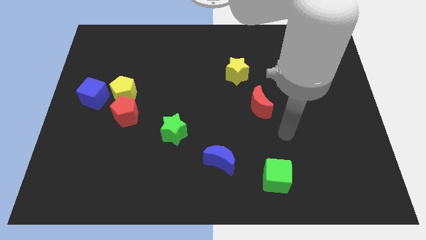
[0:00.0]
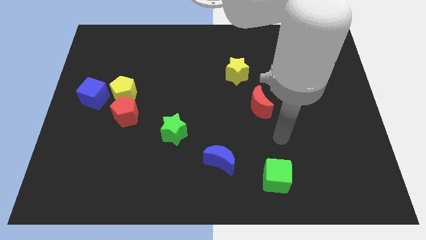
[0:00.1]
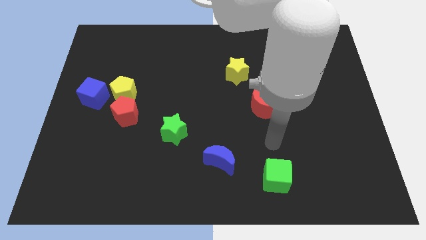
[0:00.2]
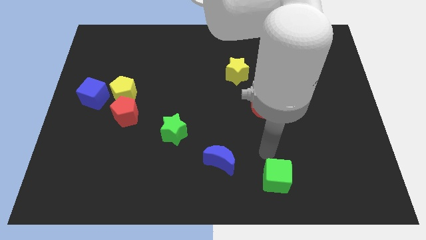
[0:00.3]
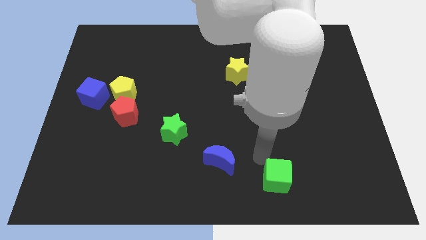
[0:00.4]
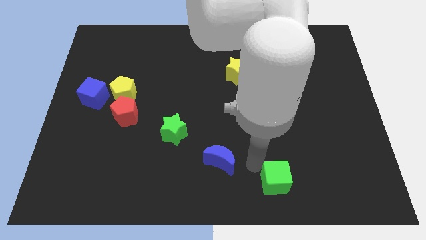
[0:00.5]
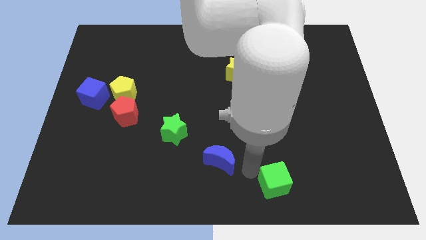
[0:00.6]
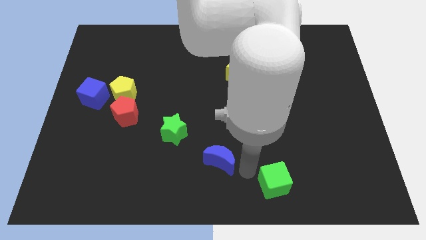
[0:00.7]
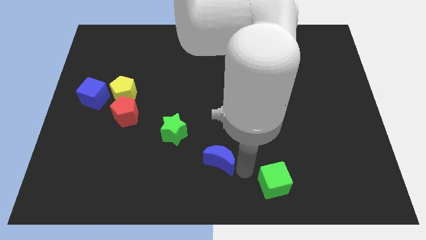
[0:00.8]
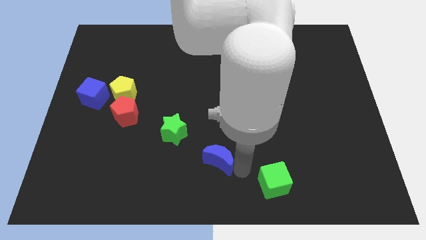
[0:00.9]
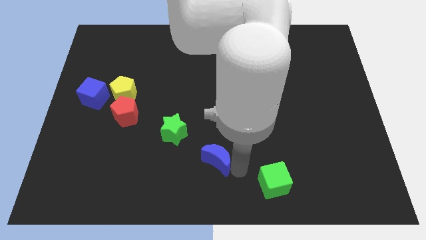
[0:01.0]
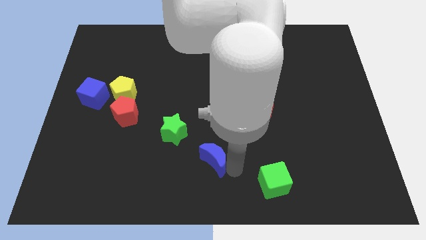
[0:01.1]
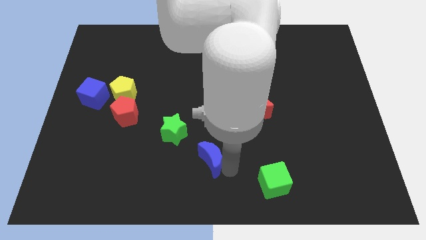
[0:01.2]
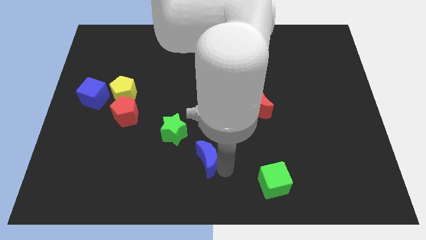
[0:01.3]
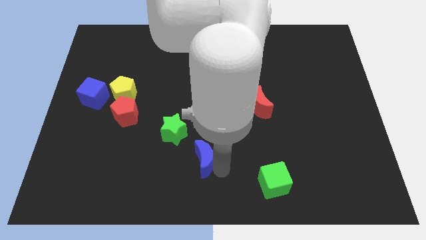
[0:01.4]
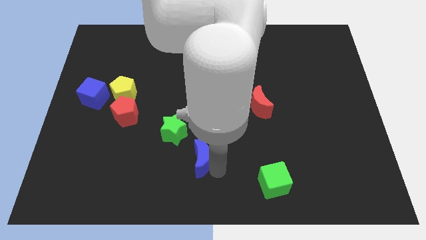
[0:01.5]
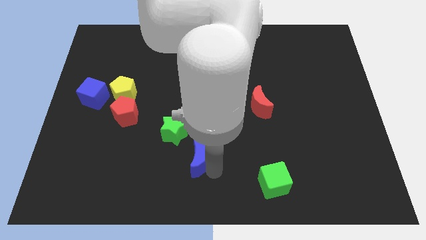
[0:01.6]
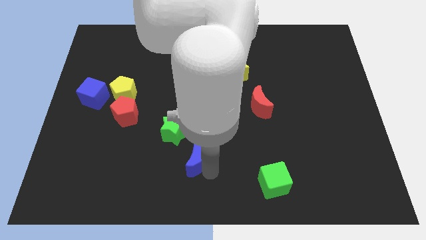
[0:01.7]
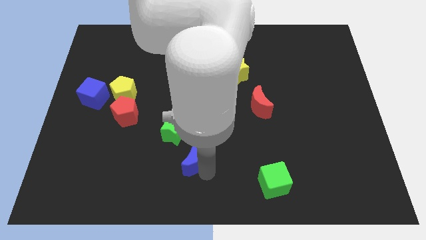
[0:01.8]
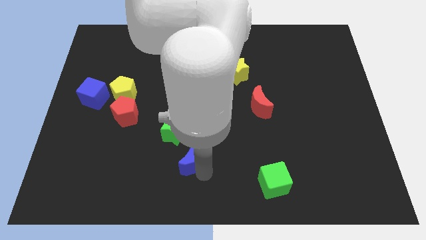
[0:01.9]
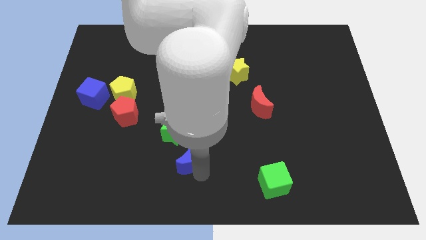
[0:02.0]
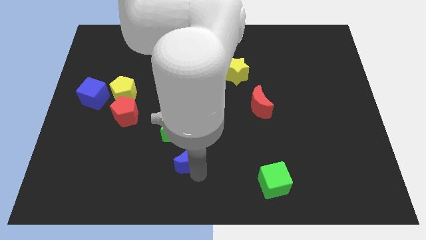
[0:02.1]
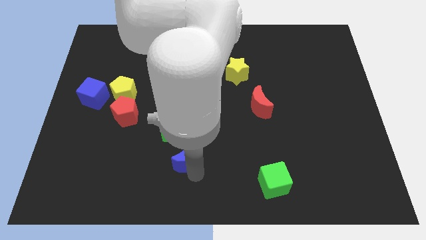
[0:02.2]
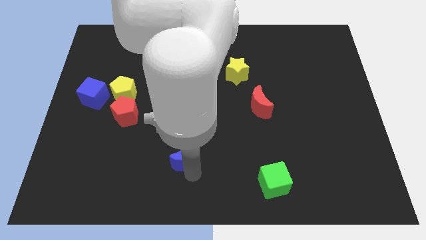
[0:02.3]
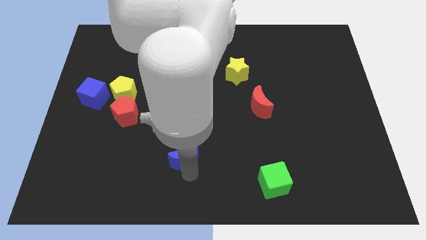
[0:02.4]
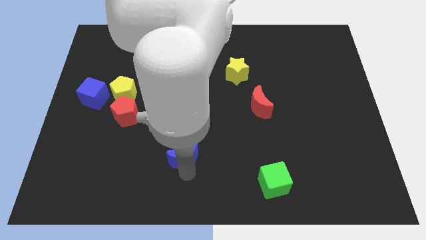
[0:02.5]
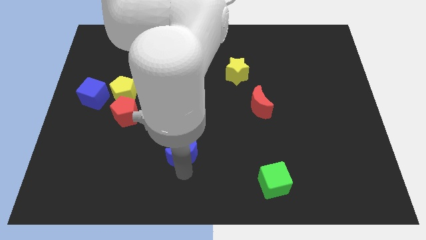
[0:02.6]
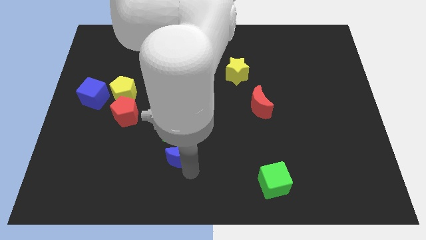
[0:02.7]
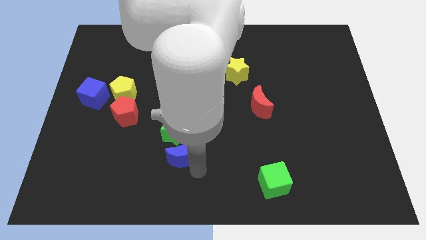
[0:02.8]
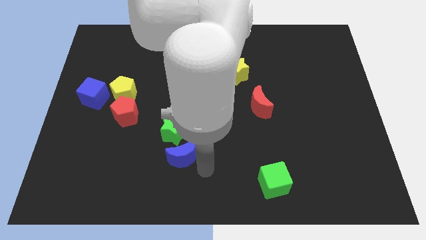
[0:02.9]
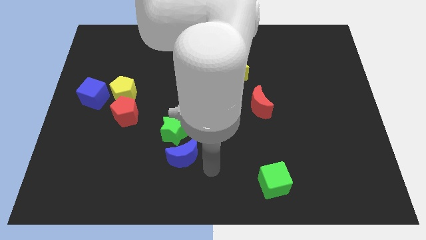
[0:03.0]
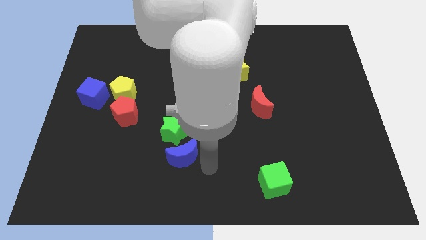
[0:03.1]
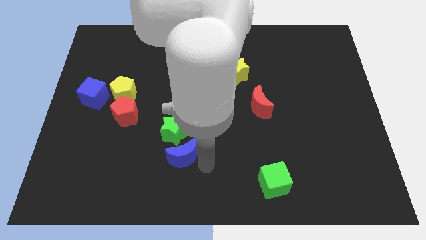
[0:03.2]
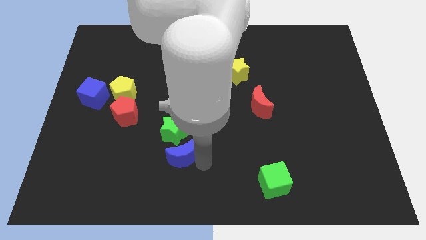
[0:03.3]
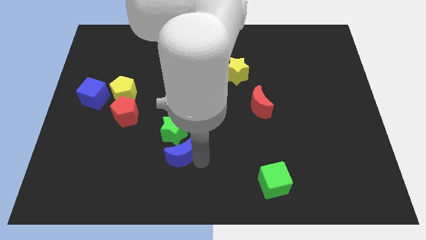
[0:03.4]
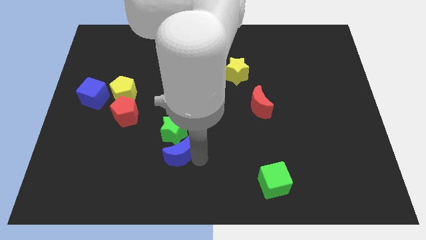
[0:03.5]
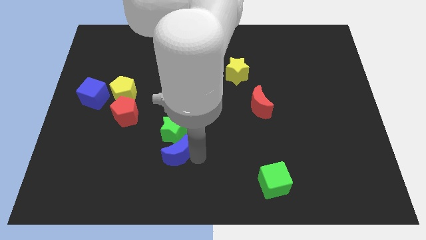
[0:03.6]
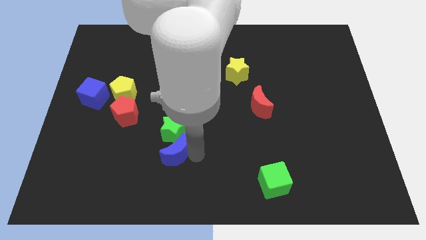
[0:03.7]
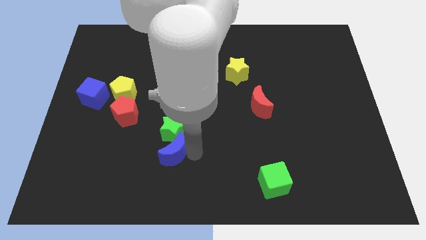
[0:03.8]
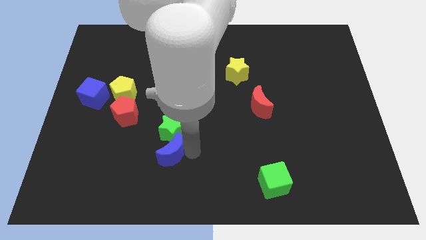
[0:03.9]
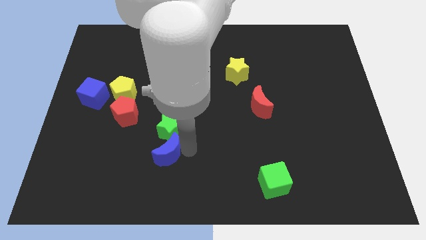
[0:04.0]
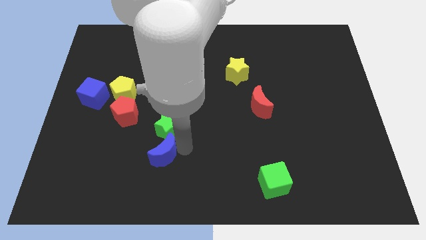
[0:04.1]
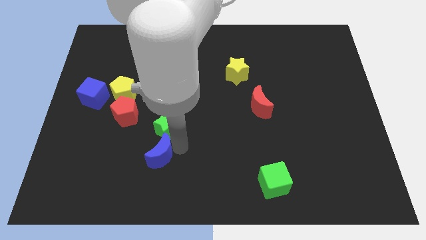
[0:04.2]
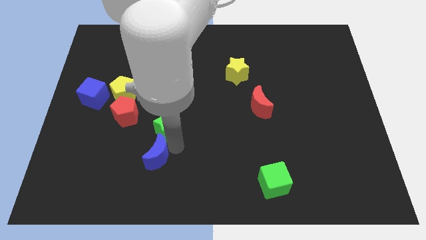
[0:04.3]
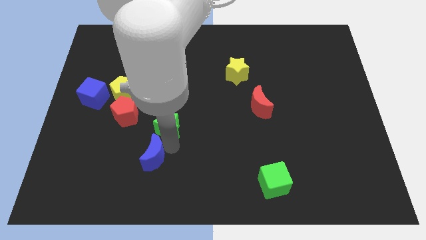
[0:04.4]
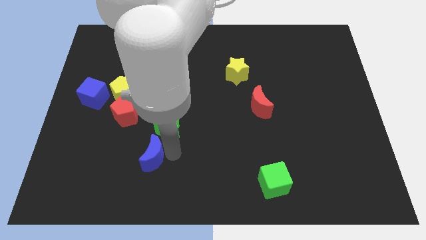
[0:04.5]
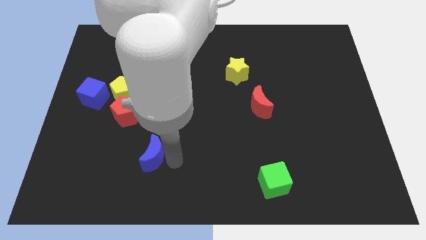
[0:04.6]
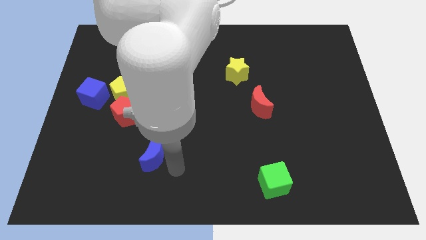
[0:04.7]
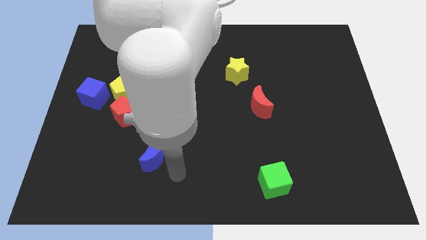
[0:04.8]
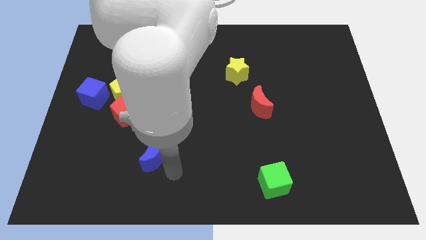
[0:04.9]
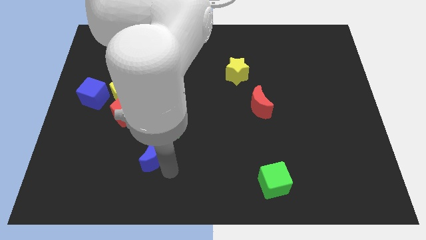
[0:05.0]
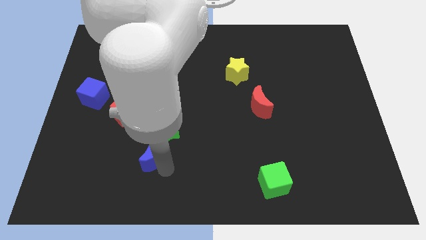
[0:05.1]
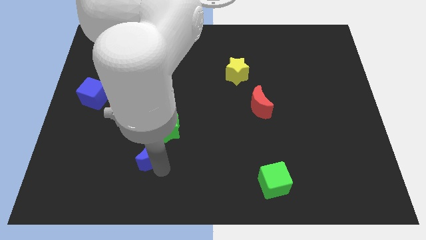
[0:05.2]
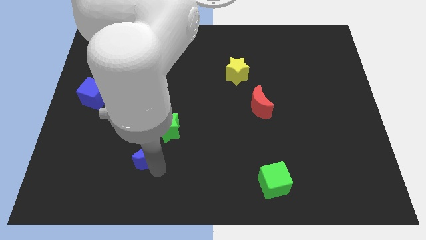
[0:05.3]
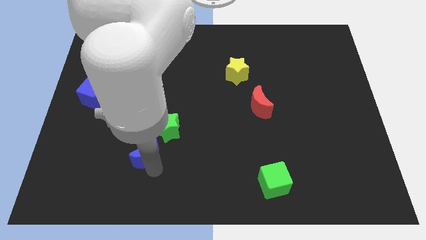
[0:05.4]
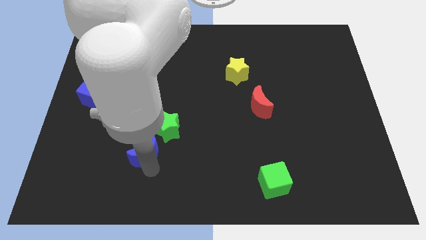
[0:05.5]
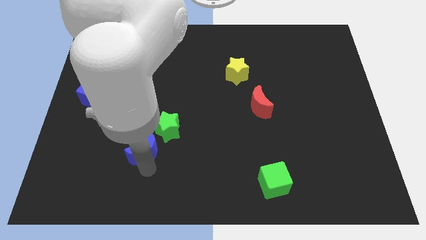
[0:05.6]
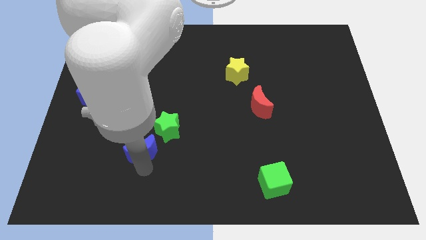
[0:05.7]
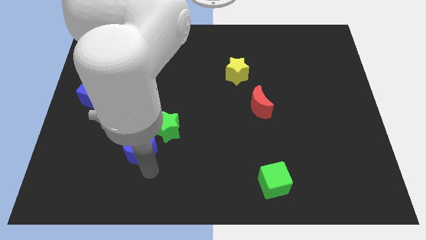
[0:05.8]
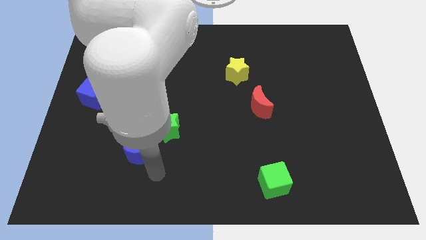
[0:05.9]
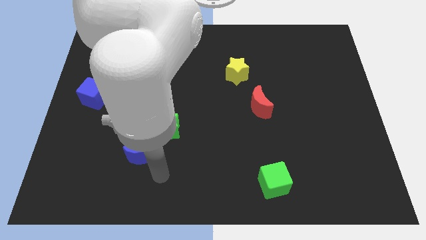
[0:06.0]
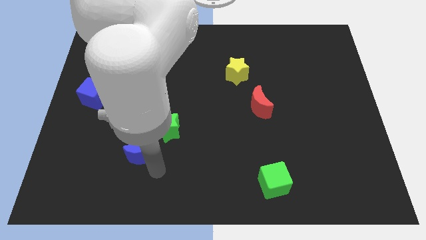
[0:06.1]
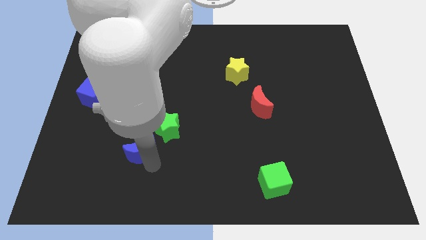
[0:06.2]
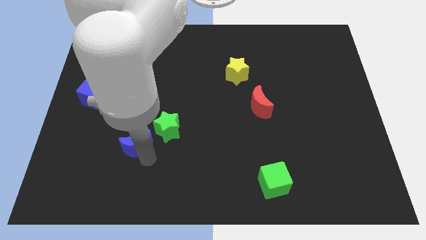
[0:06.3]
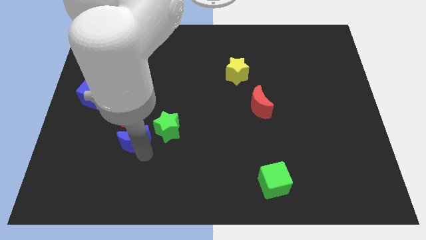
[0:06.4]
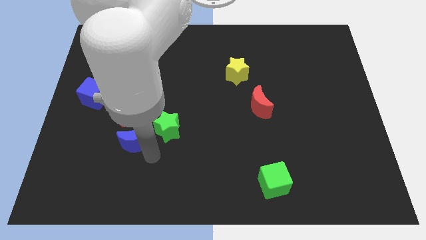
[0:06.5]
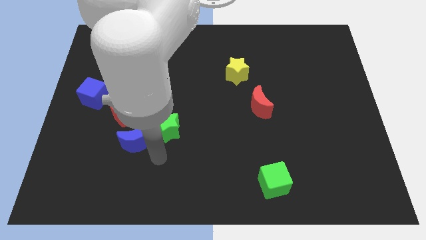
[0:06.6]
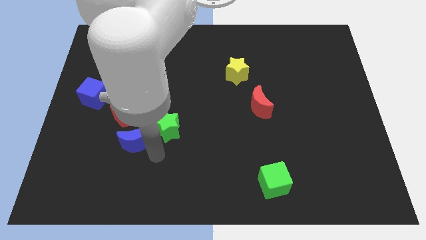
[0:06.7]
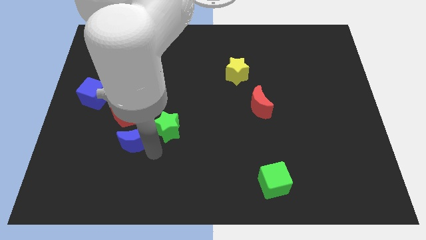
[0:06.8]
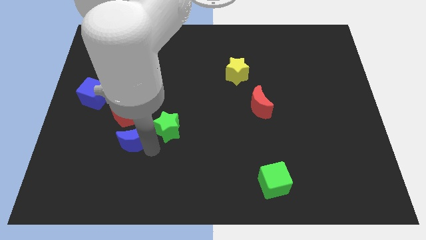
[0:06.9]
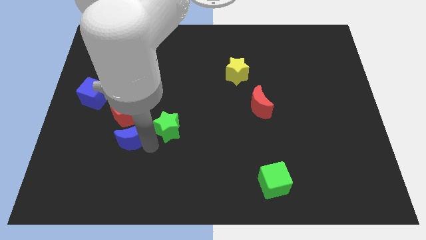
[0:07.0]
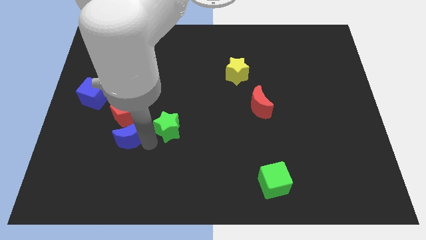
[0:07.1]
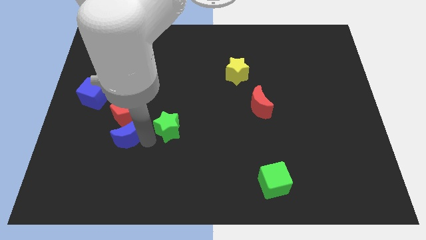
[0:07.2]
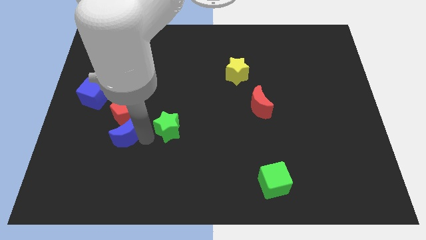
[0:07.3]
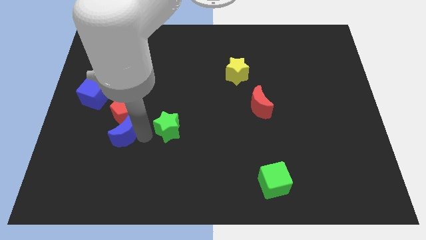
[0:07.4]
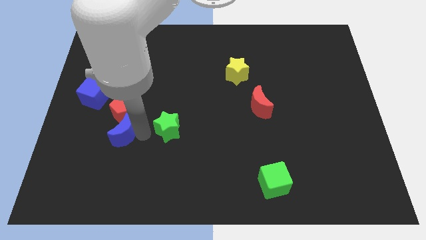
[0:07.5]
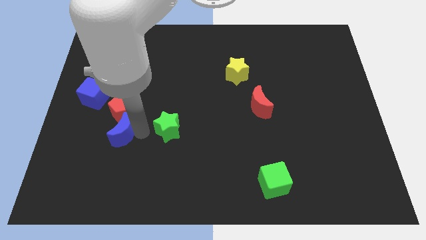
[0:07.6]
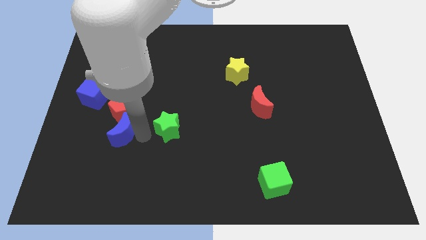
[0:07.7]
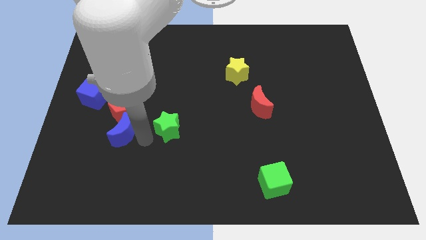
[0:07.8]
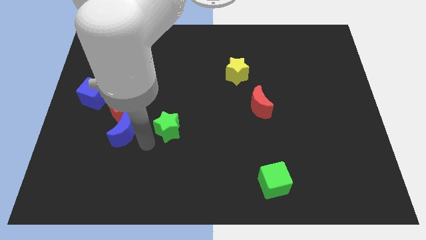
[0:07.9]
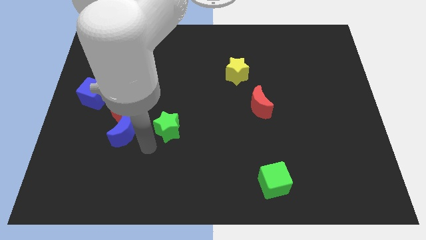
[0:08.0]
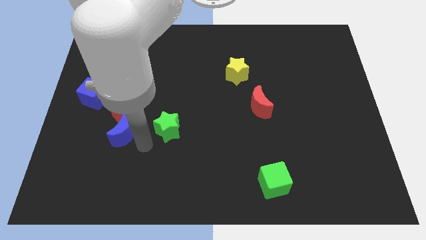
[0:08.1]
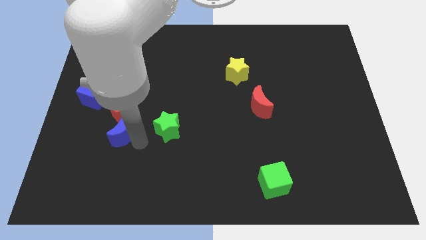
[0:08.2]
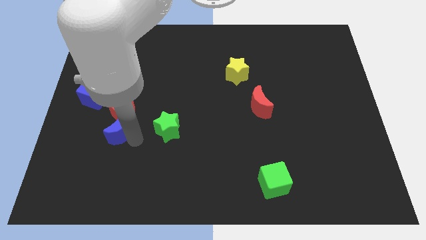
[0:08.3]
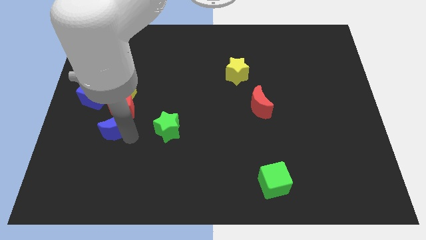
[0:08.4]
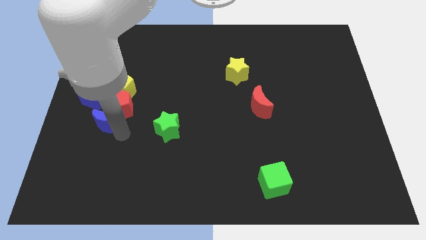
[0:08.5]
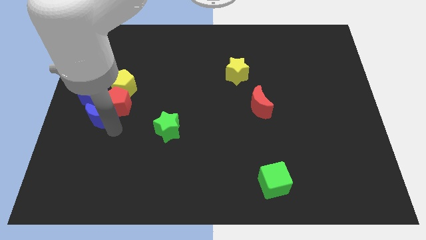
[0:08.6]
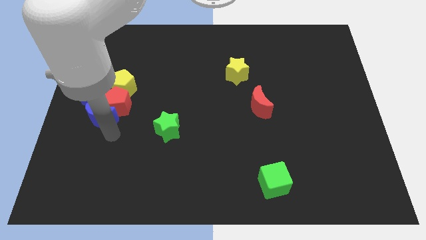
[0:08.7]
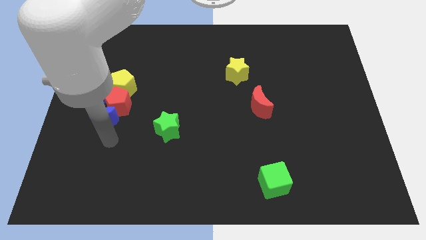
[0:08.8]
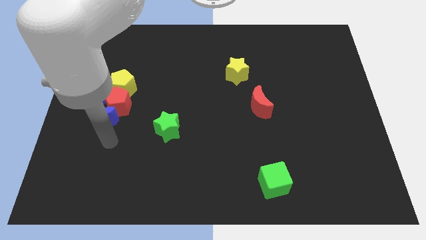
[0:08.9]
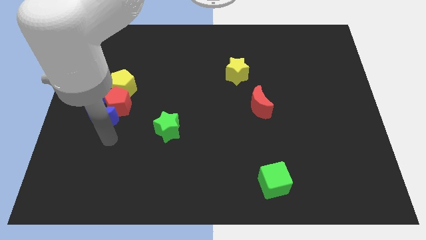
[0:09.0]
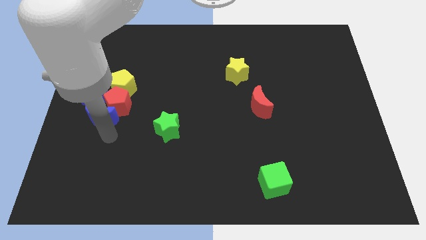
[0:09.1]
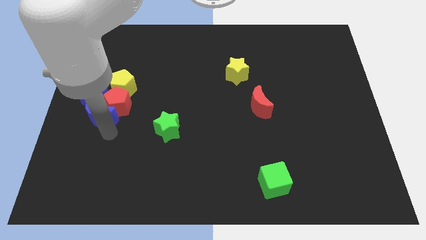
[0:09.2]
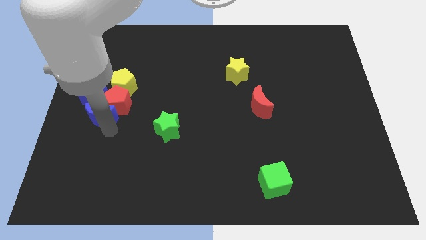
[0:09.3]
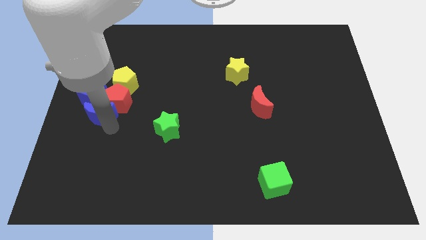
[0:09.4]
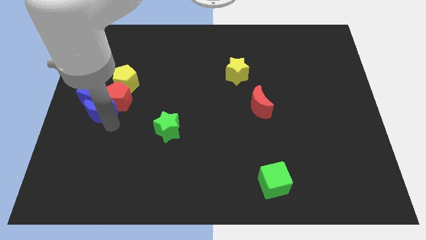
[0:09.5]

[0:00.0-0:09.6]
move the blue moon next to the blue cube
